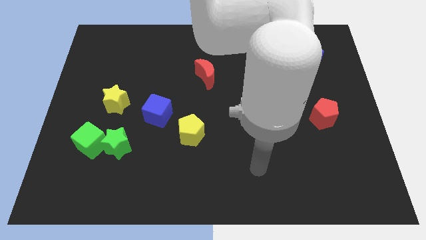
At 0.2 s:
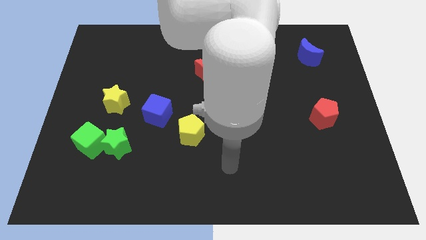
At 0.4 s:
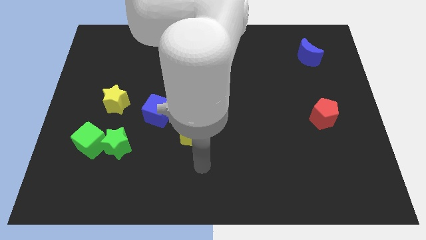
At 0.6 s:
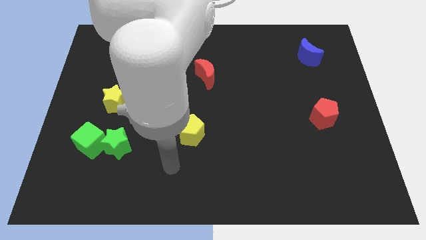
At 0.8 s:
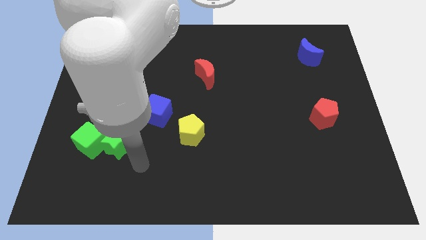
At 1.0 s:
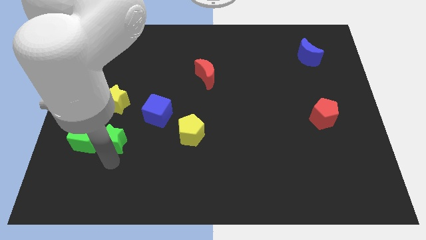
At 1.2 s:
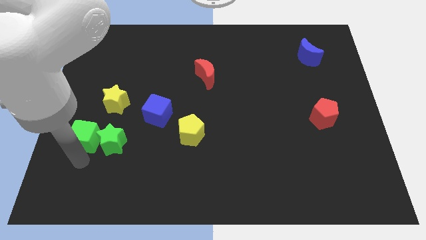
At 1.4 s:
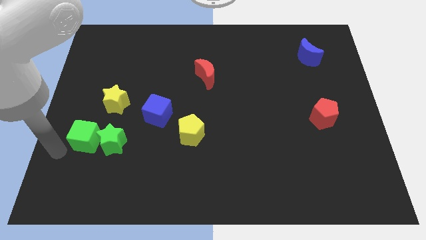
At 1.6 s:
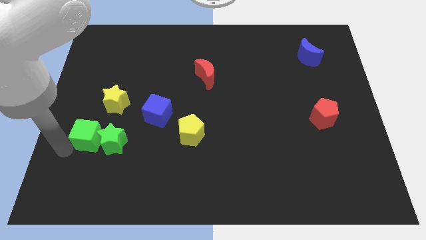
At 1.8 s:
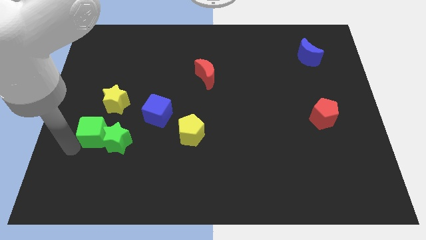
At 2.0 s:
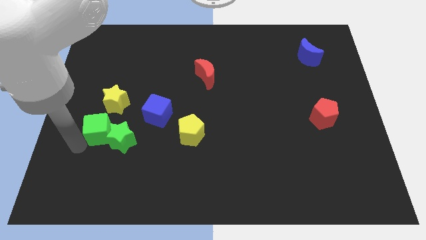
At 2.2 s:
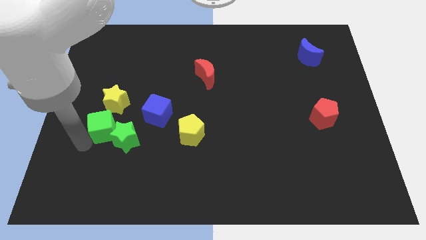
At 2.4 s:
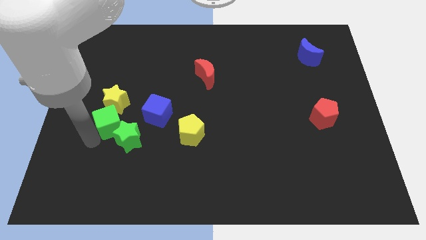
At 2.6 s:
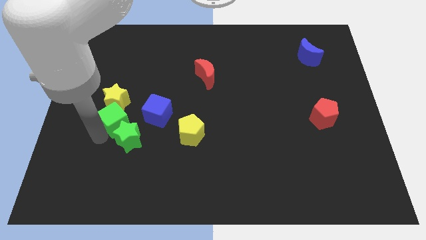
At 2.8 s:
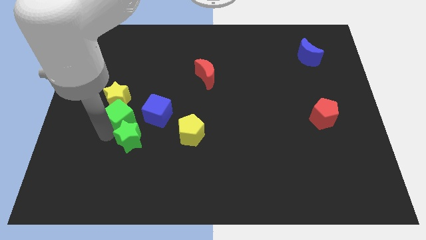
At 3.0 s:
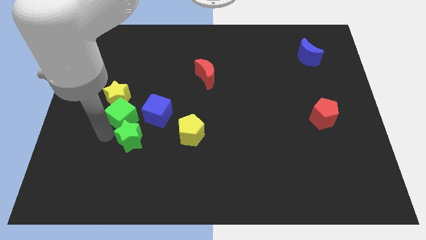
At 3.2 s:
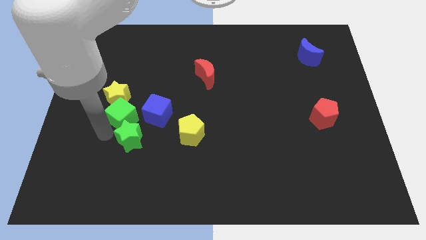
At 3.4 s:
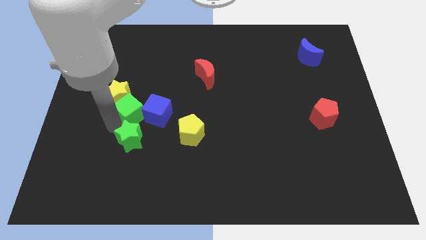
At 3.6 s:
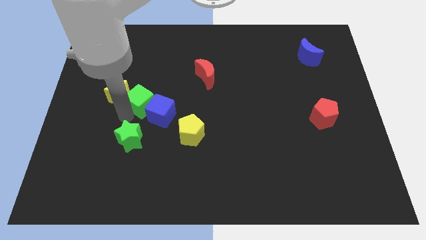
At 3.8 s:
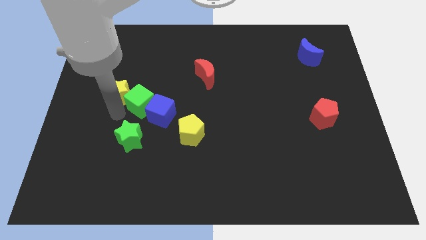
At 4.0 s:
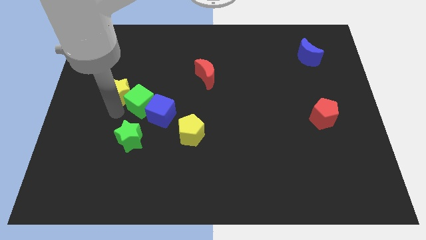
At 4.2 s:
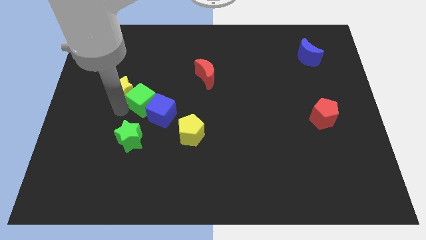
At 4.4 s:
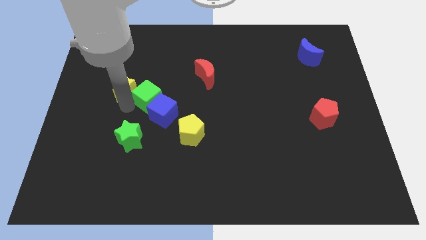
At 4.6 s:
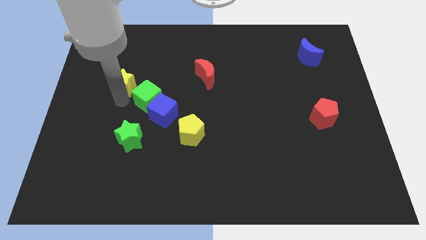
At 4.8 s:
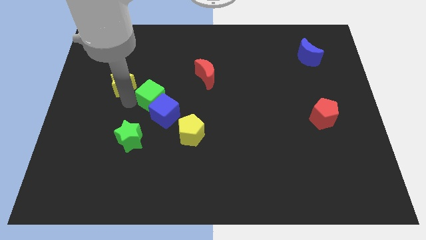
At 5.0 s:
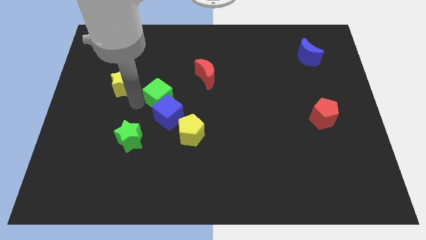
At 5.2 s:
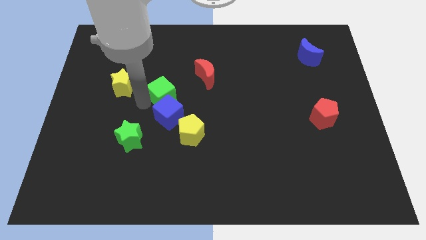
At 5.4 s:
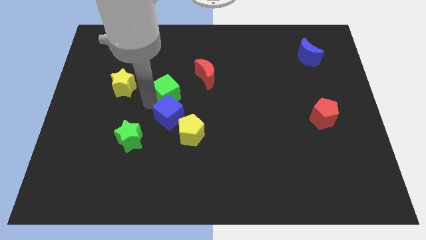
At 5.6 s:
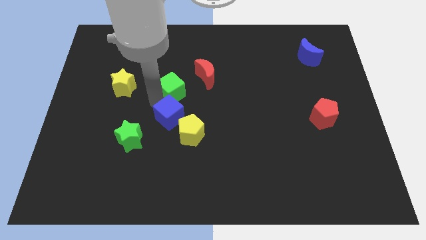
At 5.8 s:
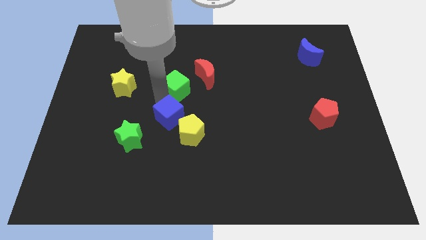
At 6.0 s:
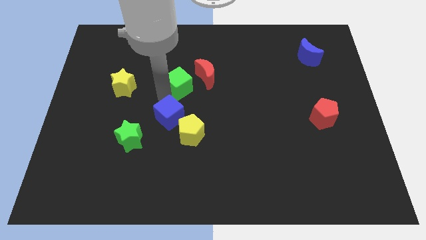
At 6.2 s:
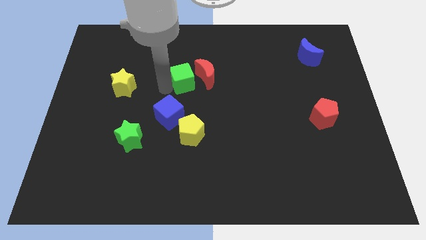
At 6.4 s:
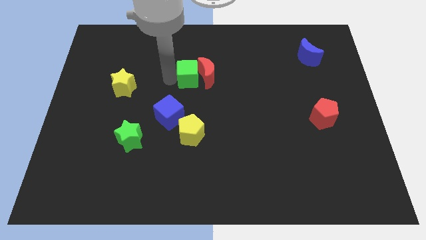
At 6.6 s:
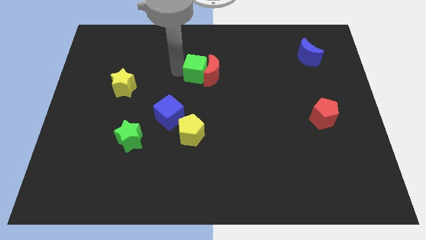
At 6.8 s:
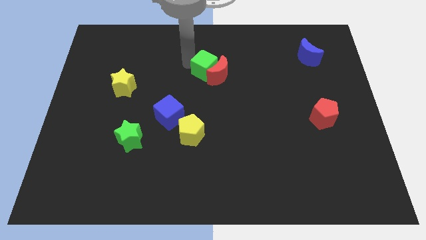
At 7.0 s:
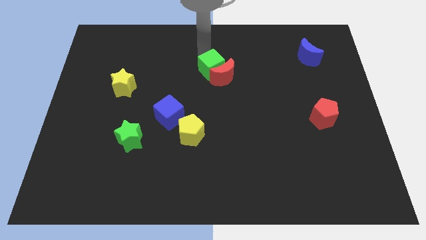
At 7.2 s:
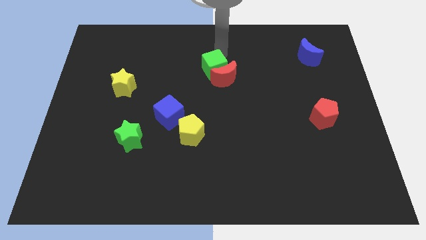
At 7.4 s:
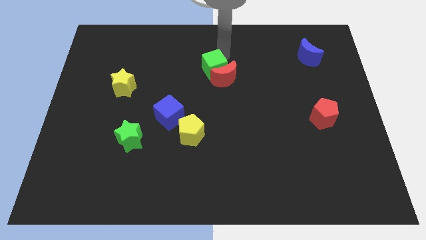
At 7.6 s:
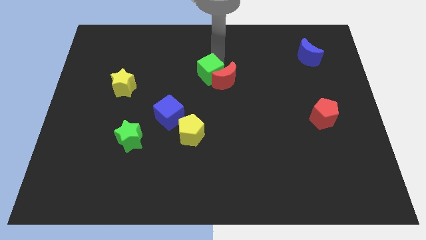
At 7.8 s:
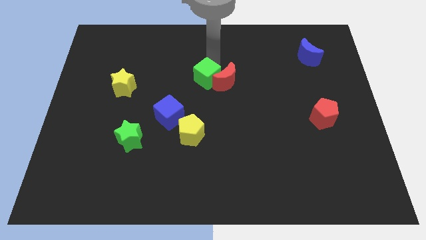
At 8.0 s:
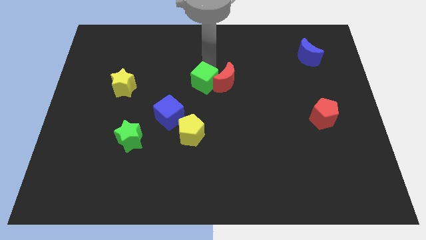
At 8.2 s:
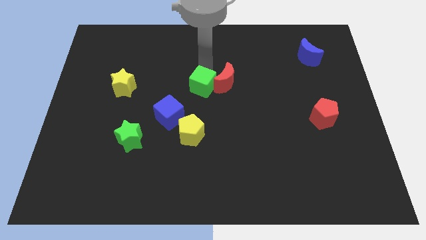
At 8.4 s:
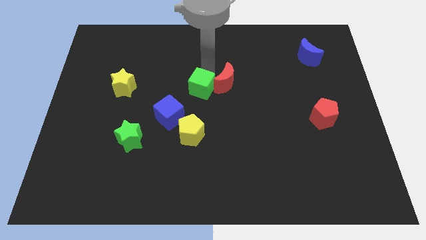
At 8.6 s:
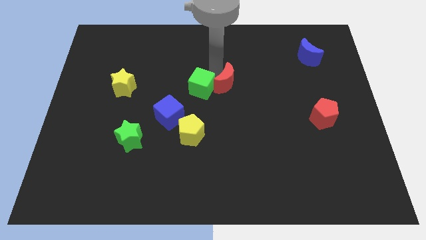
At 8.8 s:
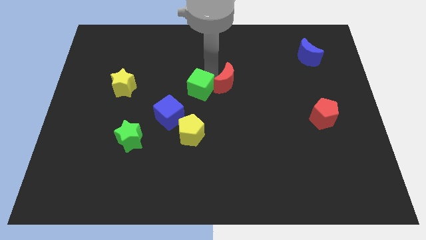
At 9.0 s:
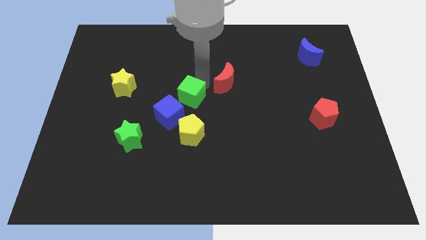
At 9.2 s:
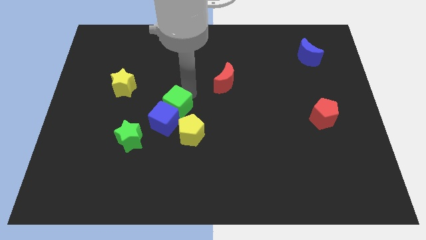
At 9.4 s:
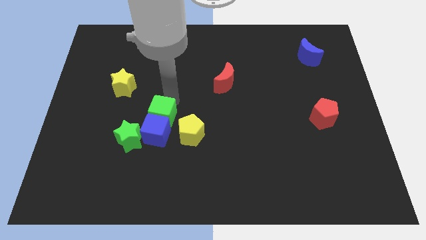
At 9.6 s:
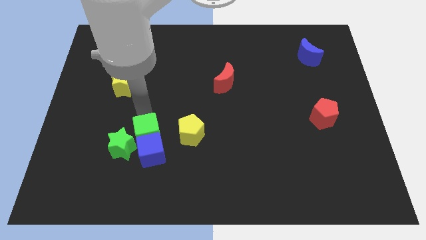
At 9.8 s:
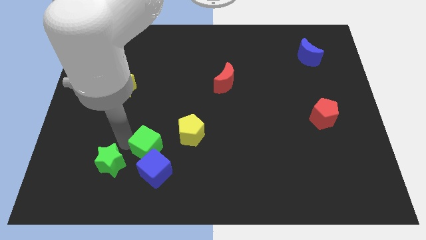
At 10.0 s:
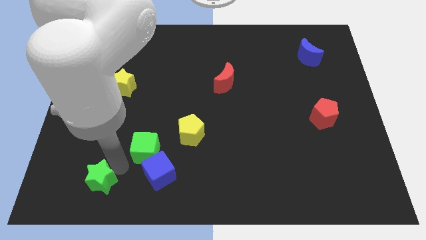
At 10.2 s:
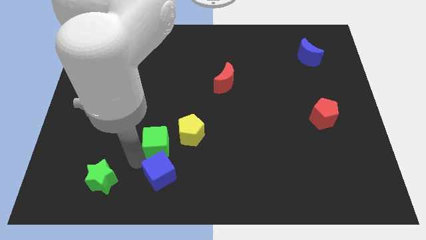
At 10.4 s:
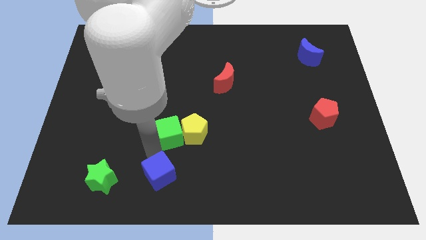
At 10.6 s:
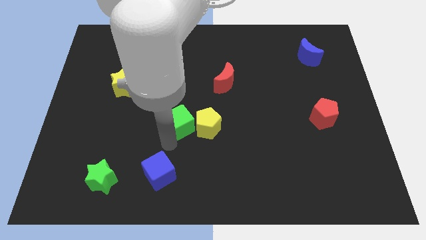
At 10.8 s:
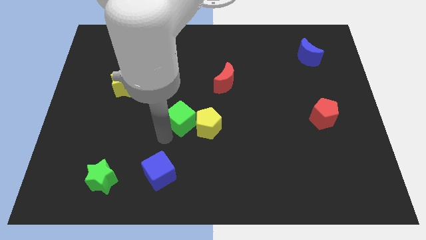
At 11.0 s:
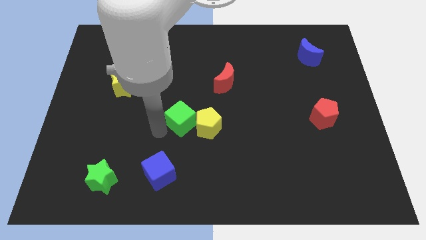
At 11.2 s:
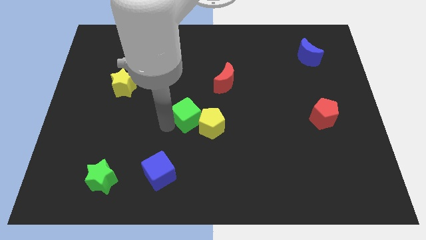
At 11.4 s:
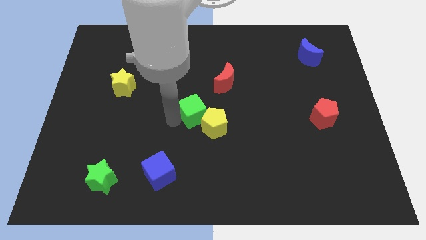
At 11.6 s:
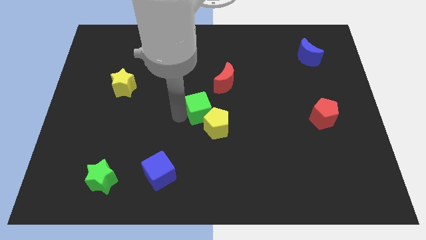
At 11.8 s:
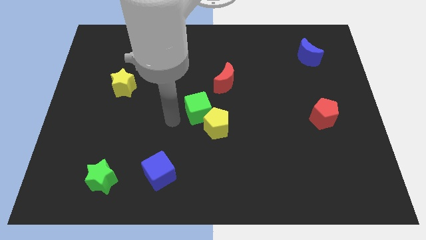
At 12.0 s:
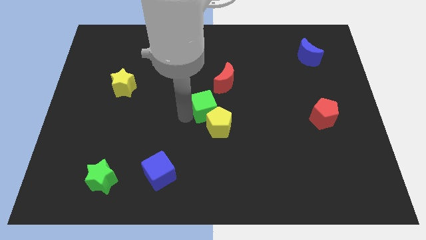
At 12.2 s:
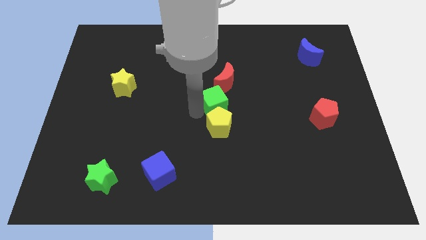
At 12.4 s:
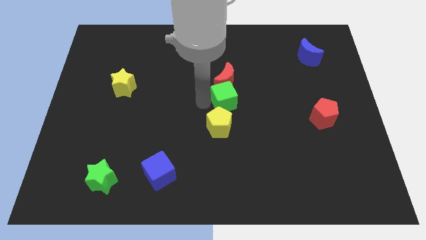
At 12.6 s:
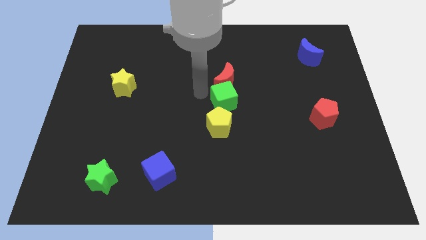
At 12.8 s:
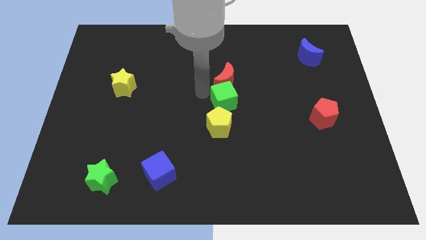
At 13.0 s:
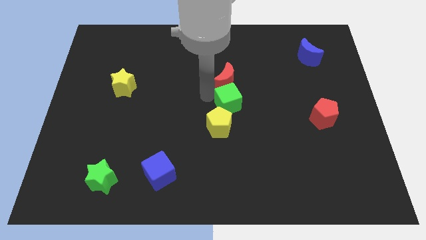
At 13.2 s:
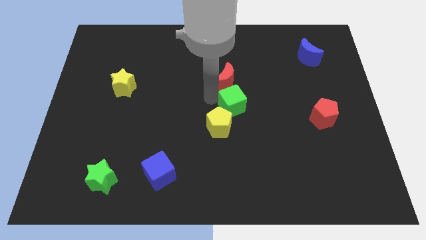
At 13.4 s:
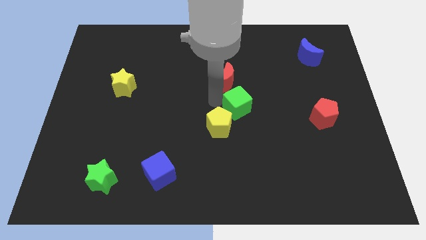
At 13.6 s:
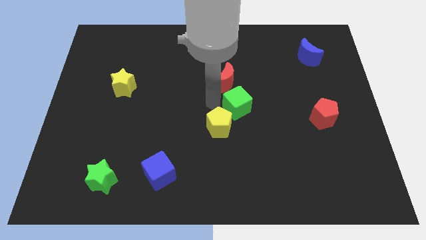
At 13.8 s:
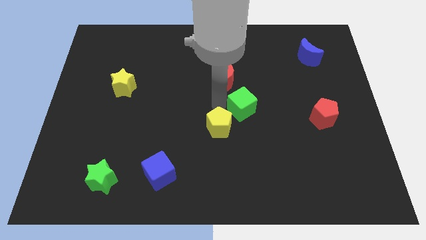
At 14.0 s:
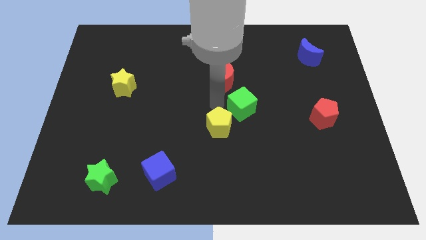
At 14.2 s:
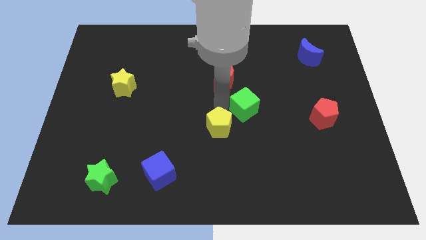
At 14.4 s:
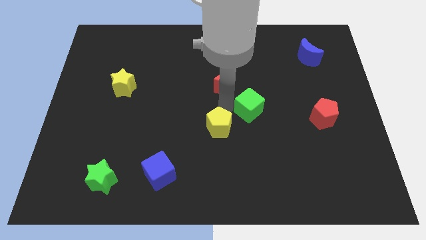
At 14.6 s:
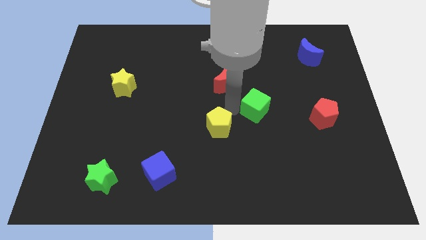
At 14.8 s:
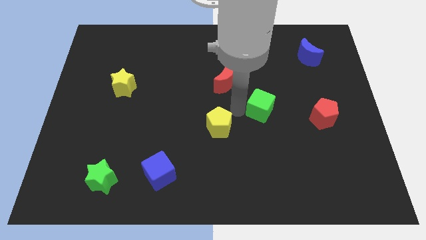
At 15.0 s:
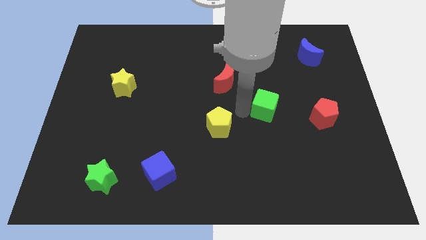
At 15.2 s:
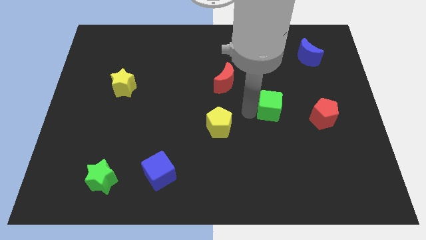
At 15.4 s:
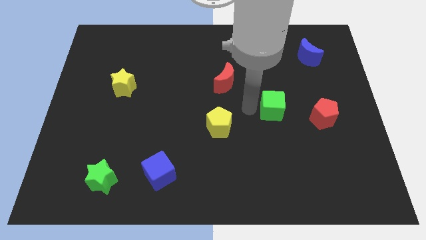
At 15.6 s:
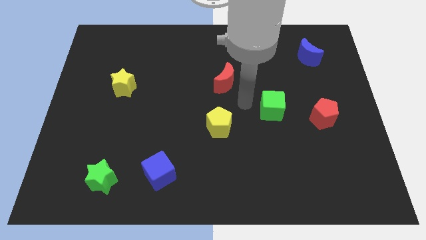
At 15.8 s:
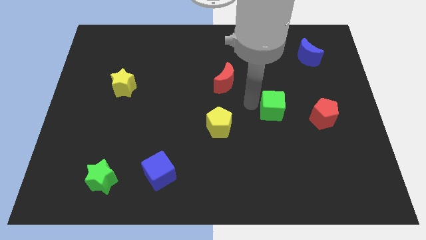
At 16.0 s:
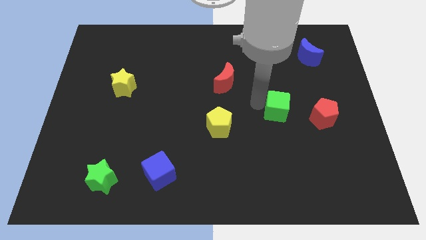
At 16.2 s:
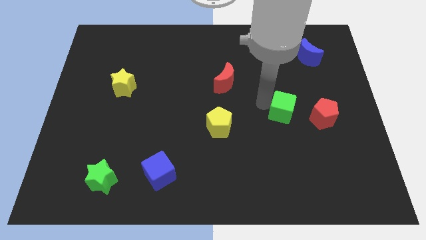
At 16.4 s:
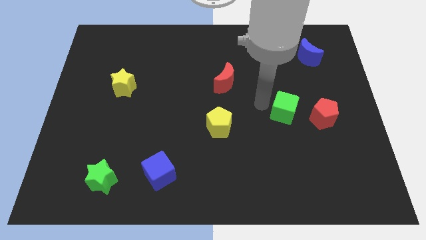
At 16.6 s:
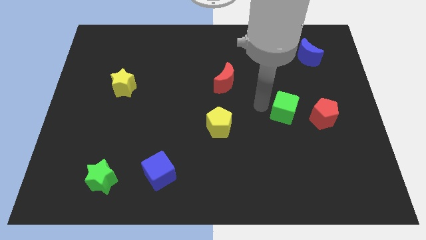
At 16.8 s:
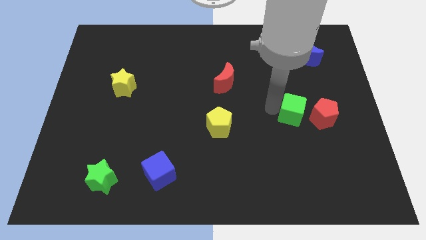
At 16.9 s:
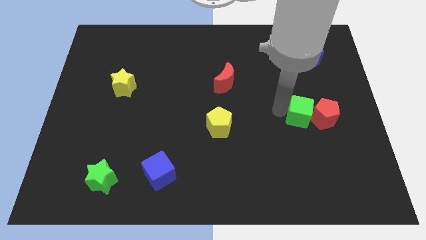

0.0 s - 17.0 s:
move the green cube close to the red pentagon
